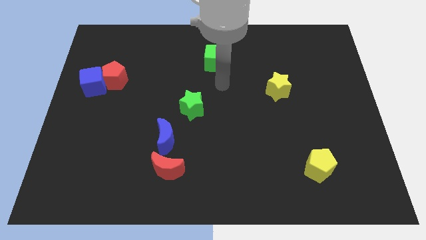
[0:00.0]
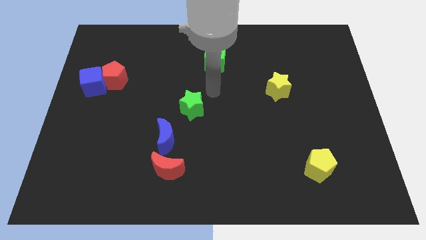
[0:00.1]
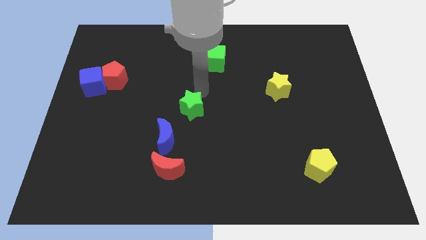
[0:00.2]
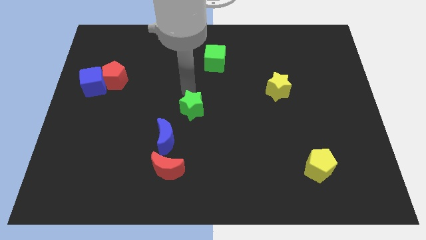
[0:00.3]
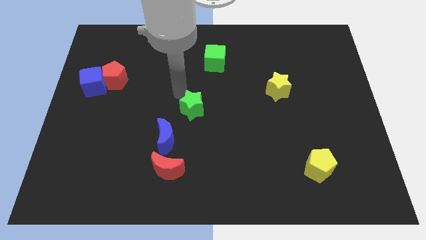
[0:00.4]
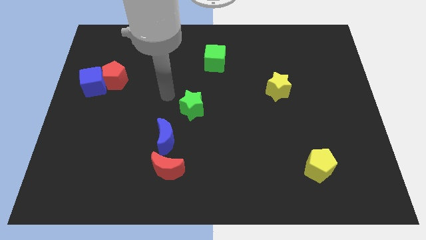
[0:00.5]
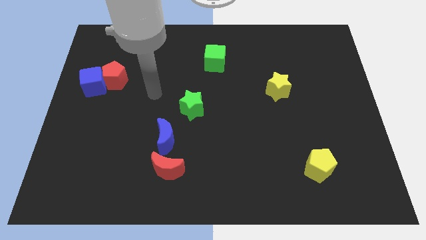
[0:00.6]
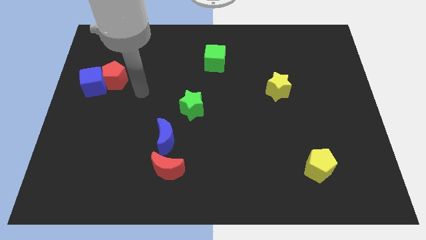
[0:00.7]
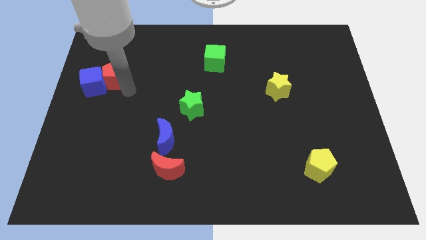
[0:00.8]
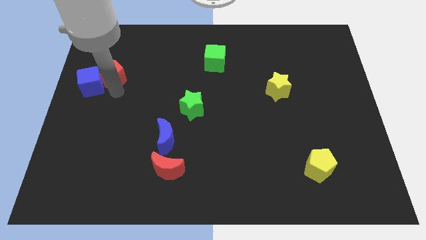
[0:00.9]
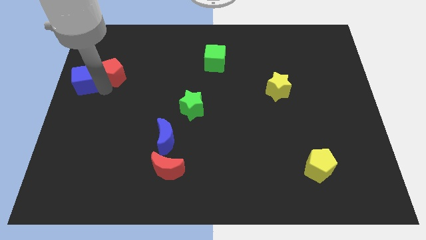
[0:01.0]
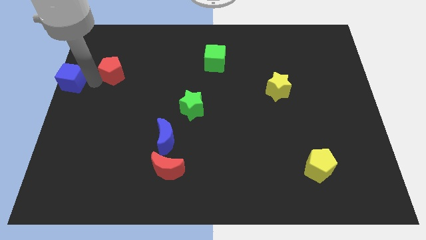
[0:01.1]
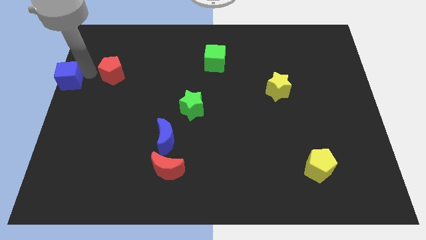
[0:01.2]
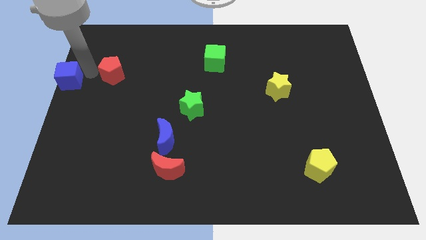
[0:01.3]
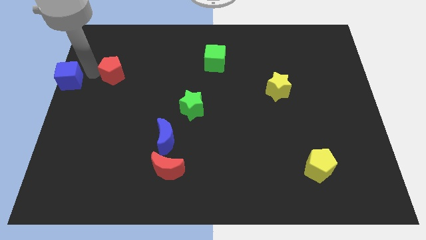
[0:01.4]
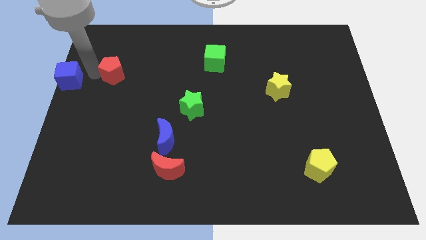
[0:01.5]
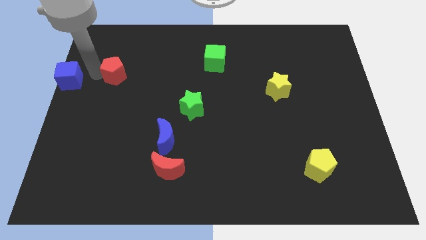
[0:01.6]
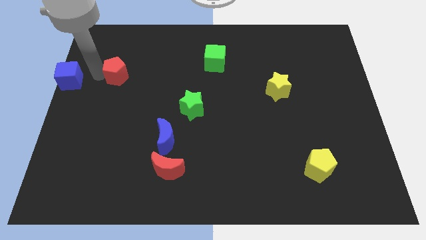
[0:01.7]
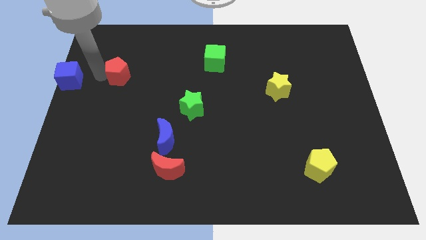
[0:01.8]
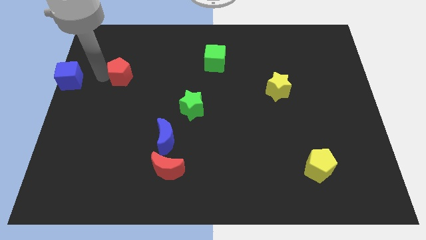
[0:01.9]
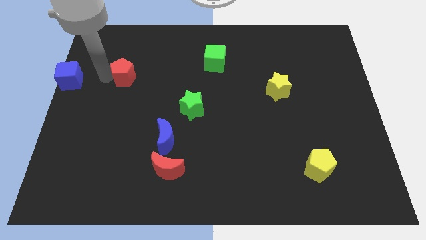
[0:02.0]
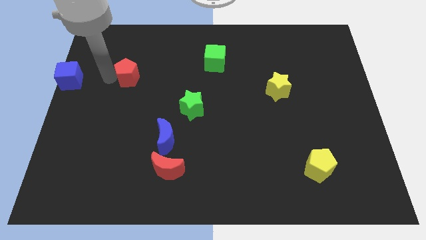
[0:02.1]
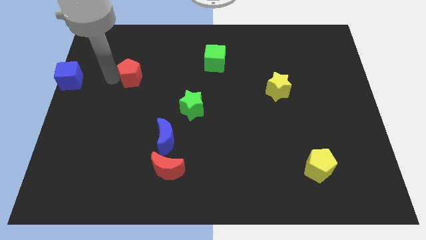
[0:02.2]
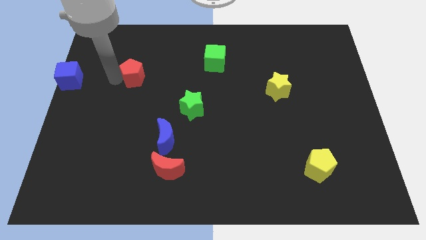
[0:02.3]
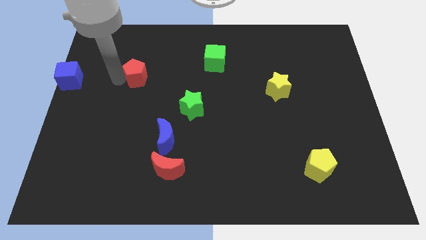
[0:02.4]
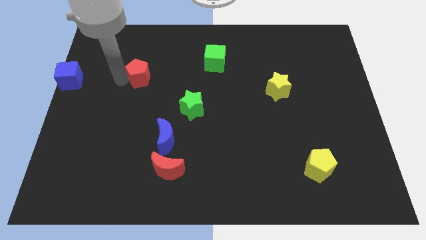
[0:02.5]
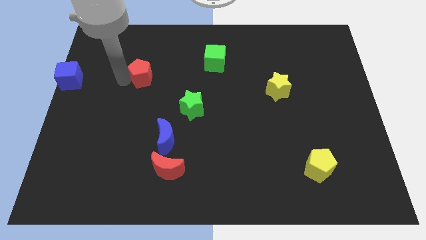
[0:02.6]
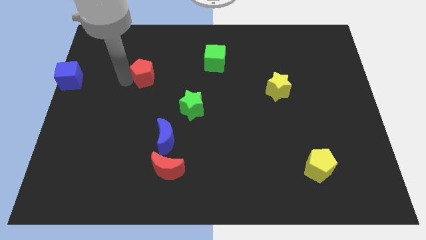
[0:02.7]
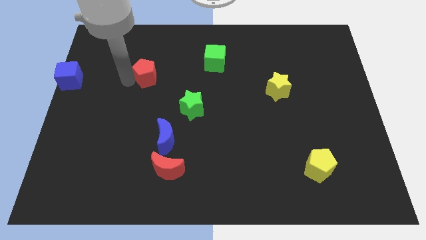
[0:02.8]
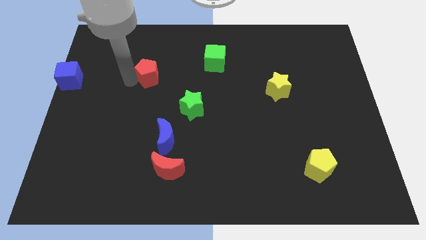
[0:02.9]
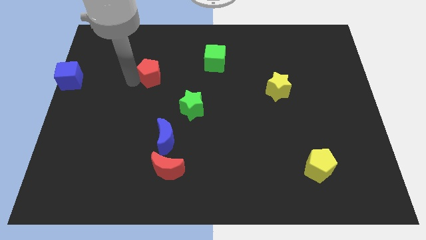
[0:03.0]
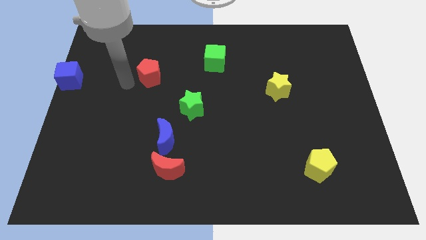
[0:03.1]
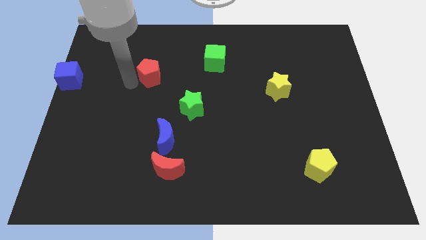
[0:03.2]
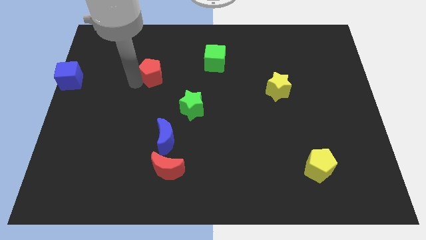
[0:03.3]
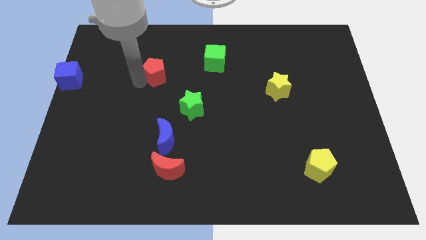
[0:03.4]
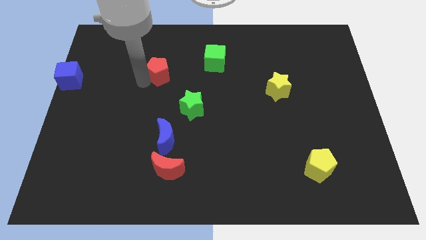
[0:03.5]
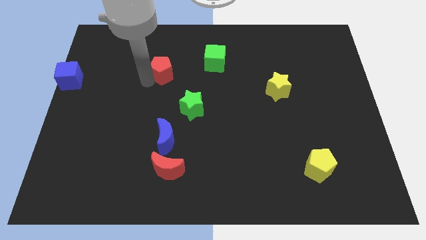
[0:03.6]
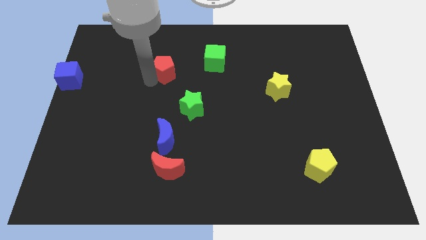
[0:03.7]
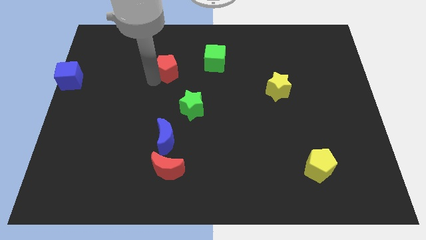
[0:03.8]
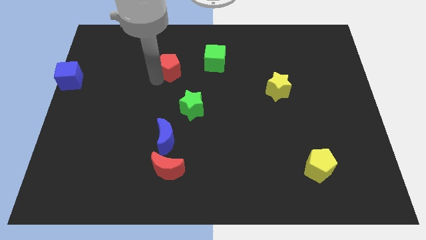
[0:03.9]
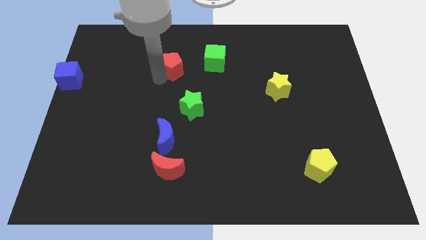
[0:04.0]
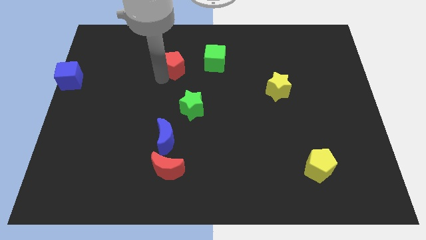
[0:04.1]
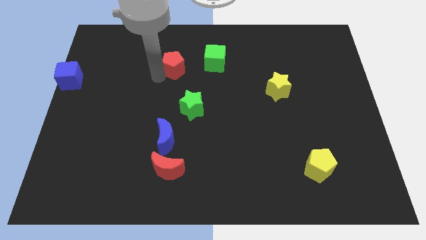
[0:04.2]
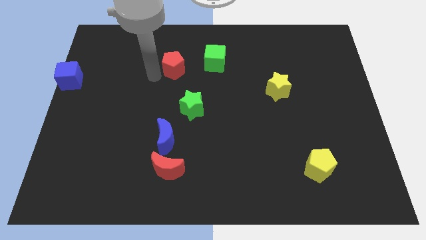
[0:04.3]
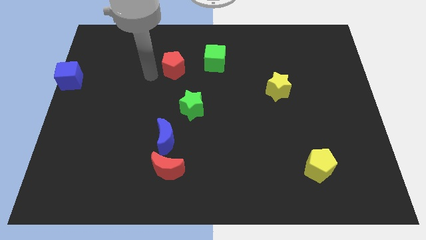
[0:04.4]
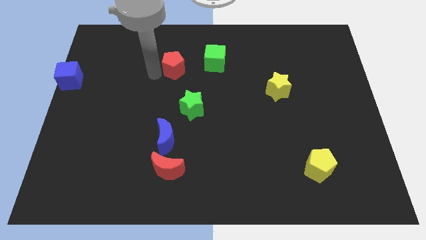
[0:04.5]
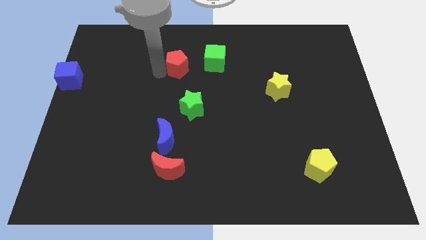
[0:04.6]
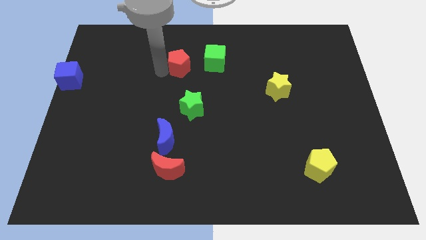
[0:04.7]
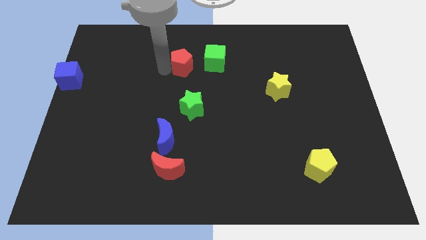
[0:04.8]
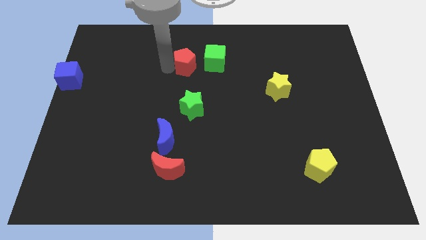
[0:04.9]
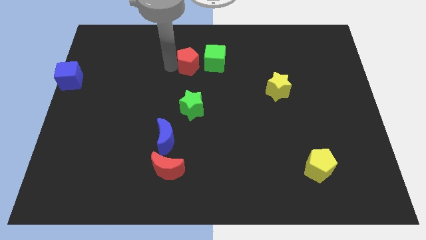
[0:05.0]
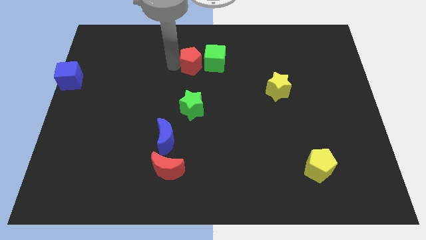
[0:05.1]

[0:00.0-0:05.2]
move the red pentagon next to the green cube

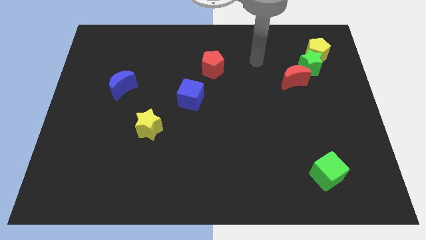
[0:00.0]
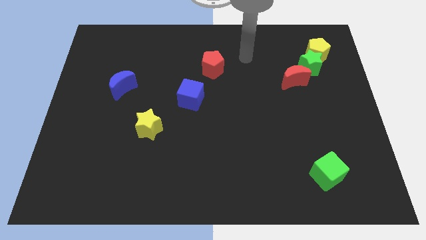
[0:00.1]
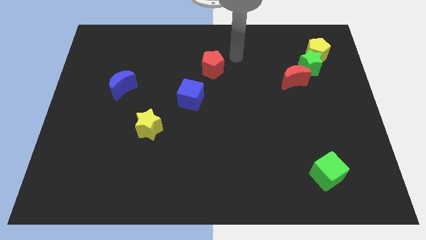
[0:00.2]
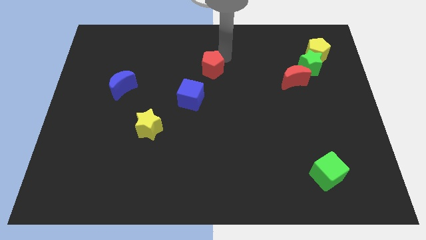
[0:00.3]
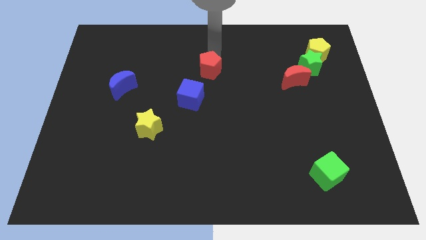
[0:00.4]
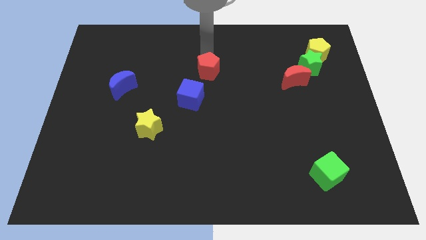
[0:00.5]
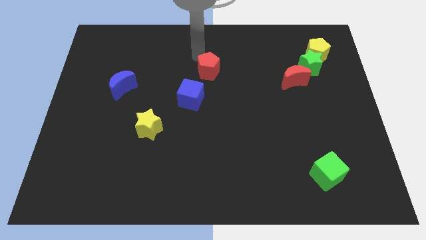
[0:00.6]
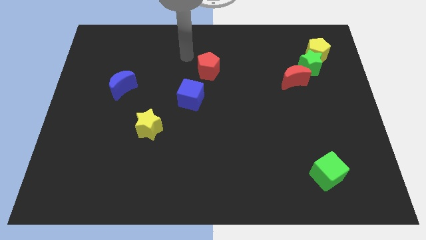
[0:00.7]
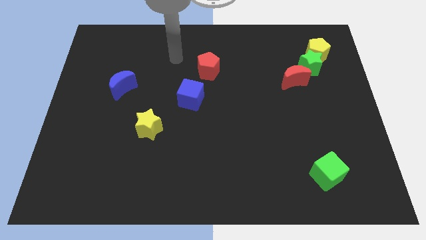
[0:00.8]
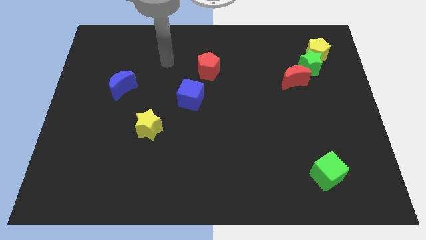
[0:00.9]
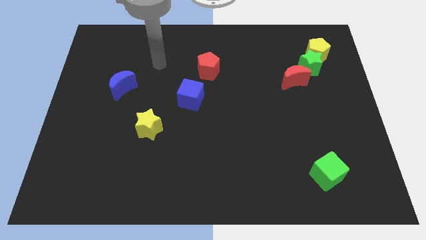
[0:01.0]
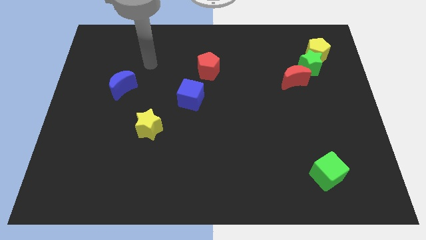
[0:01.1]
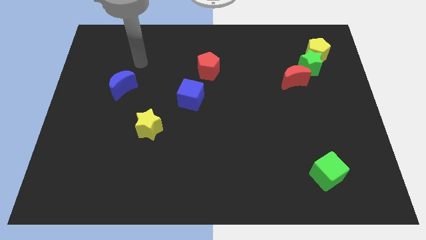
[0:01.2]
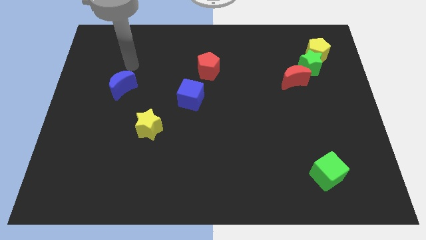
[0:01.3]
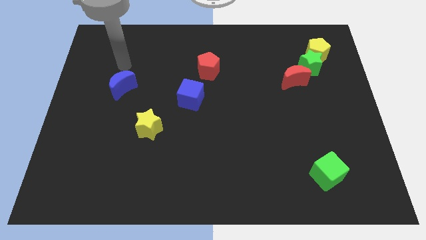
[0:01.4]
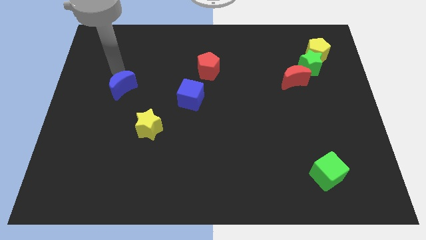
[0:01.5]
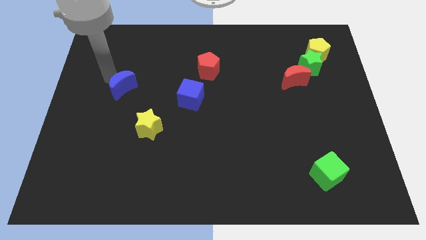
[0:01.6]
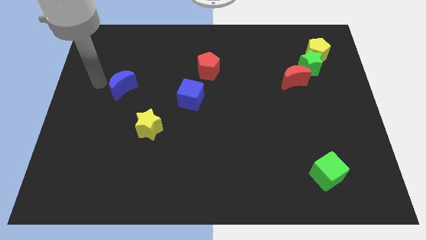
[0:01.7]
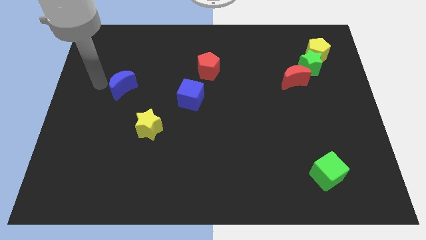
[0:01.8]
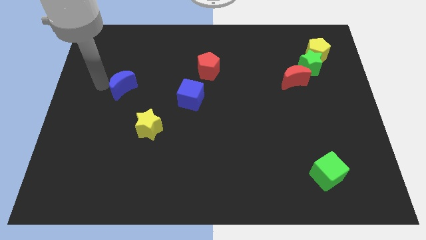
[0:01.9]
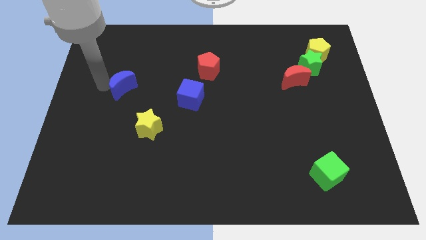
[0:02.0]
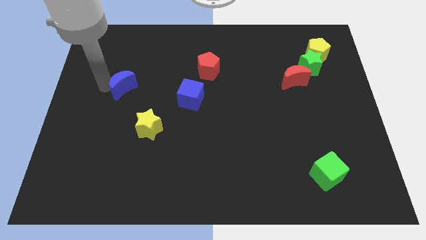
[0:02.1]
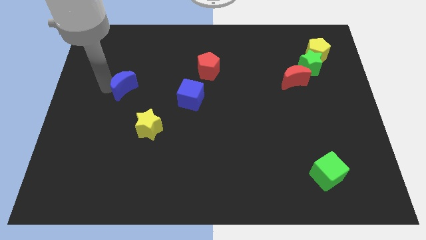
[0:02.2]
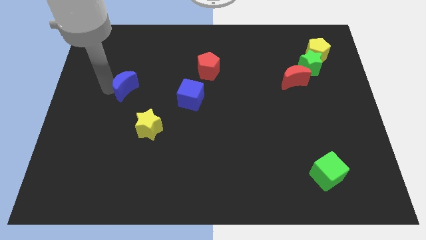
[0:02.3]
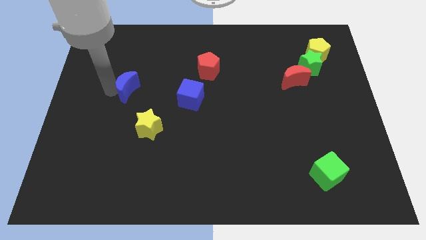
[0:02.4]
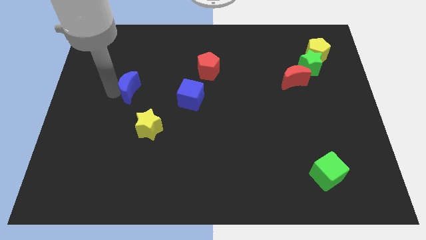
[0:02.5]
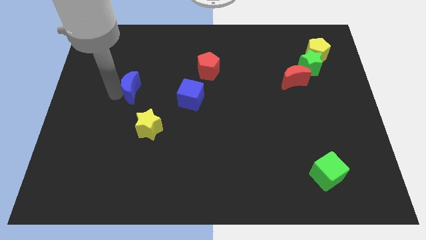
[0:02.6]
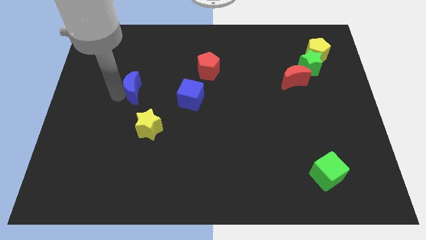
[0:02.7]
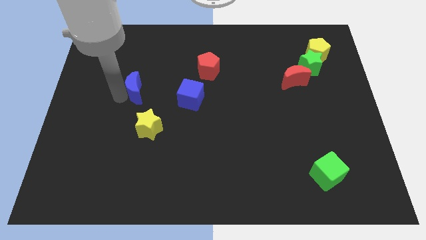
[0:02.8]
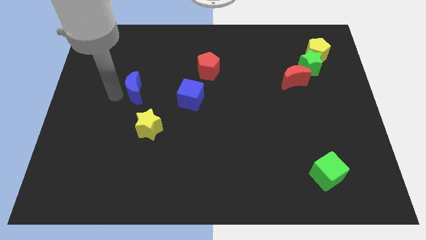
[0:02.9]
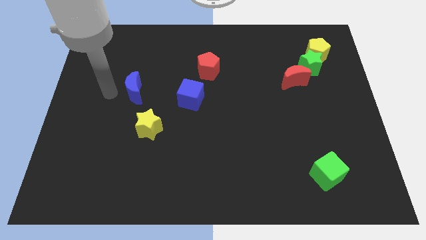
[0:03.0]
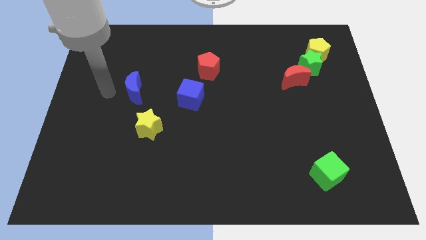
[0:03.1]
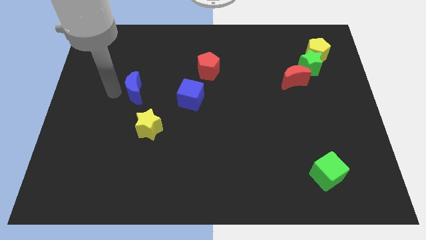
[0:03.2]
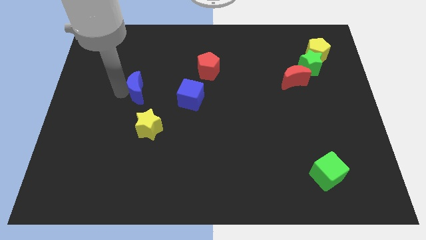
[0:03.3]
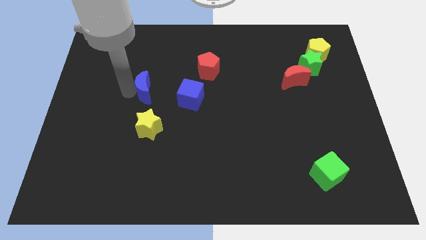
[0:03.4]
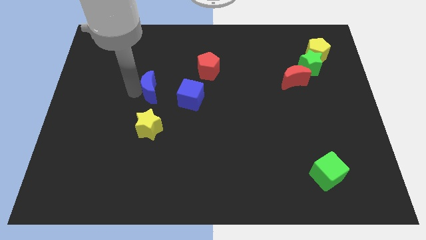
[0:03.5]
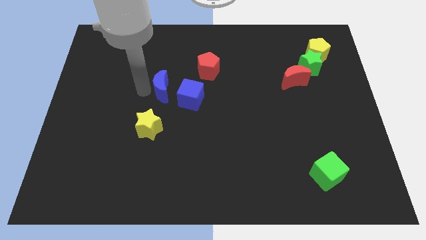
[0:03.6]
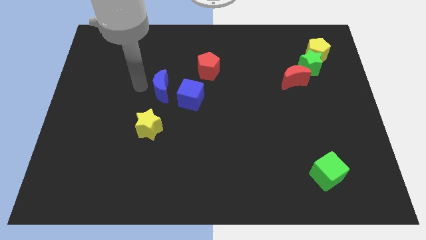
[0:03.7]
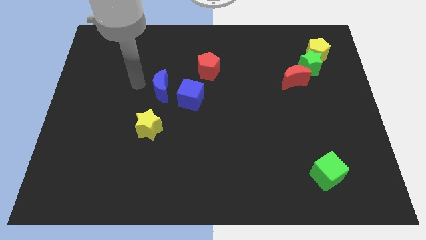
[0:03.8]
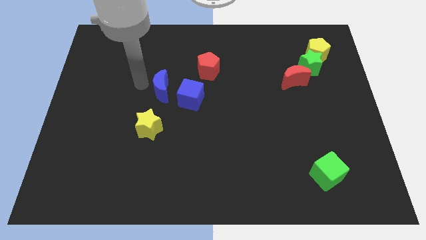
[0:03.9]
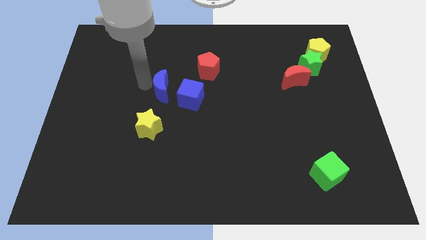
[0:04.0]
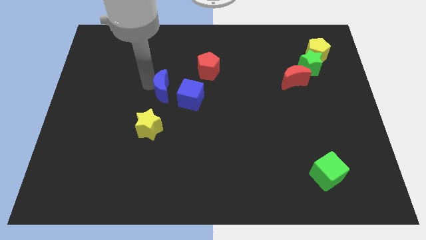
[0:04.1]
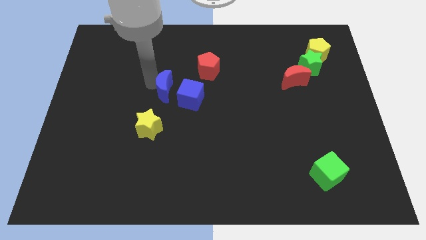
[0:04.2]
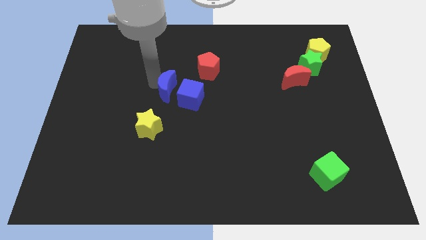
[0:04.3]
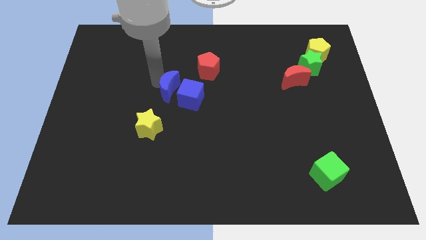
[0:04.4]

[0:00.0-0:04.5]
put the blue moon close to the blue cube
